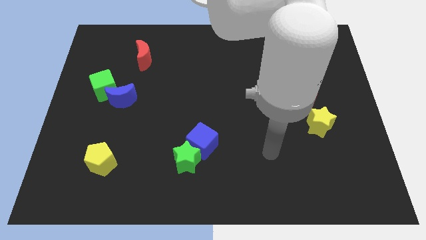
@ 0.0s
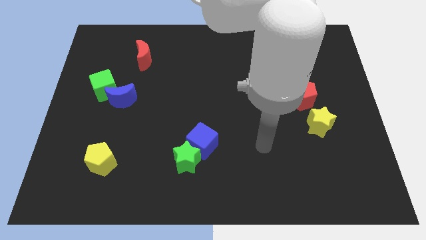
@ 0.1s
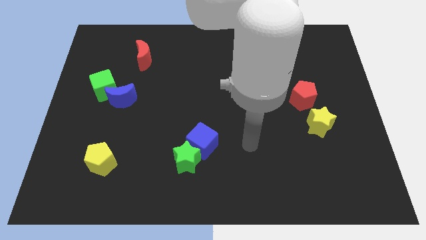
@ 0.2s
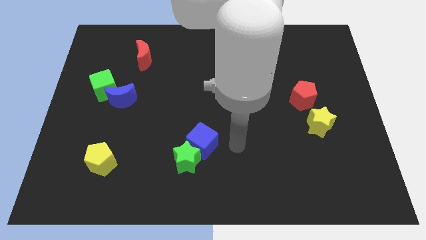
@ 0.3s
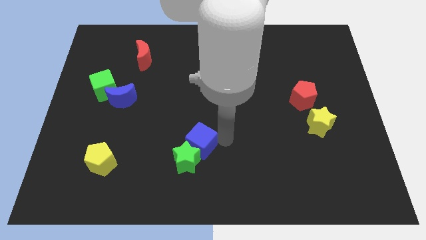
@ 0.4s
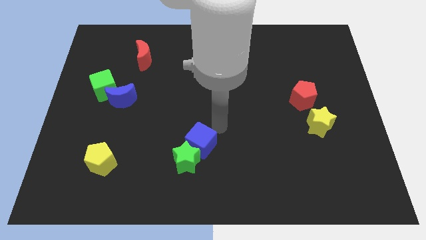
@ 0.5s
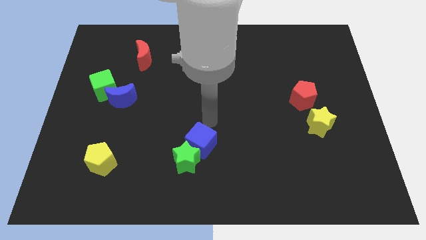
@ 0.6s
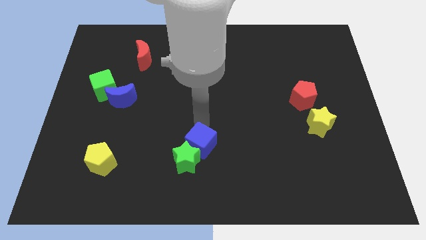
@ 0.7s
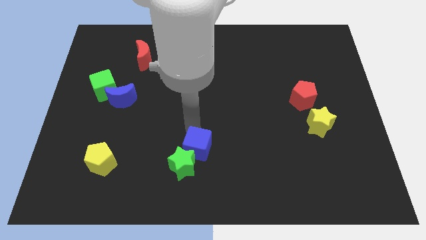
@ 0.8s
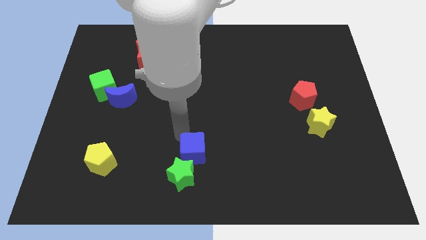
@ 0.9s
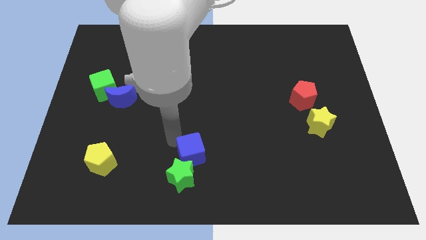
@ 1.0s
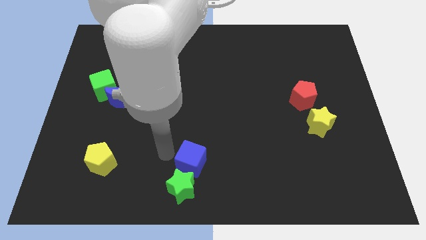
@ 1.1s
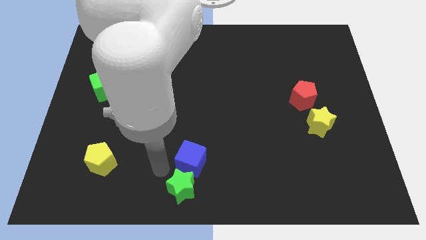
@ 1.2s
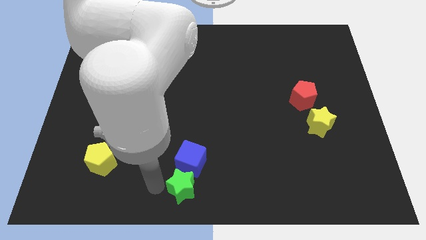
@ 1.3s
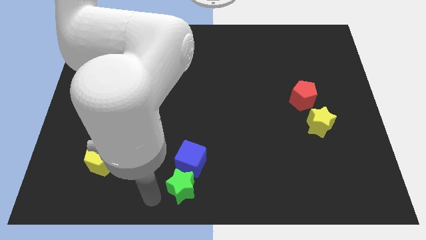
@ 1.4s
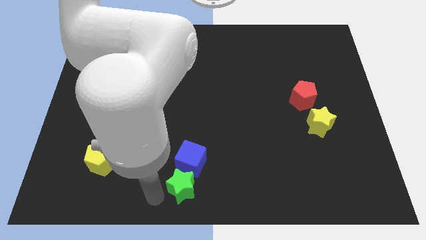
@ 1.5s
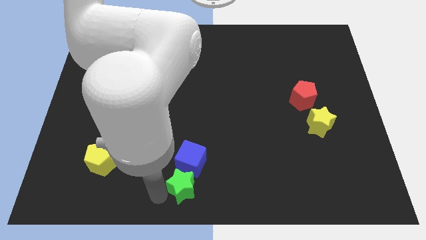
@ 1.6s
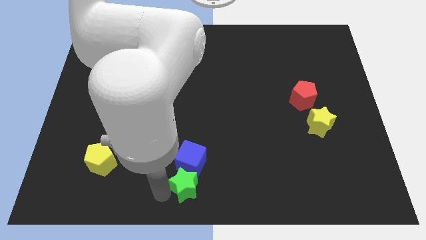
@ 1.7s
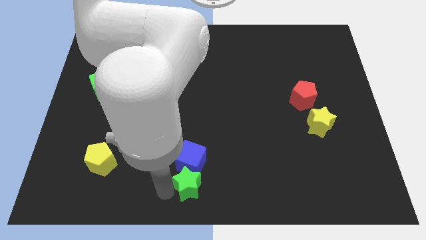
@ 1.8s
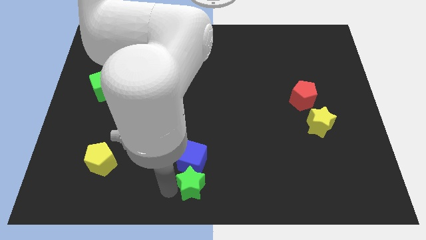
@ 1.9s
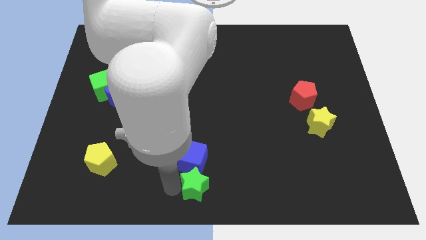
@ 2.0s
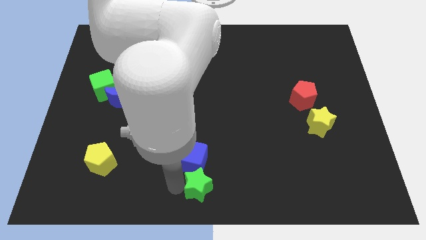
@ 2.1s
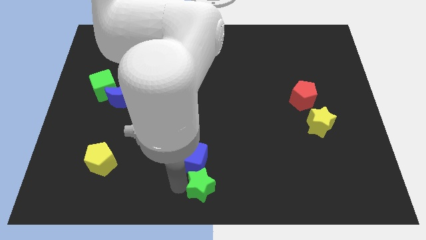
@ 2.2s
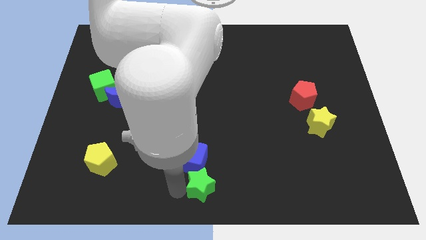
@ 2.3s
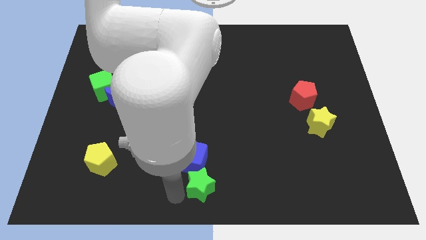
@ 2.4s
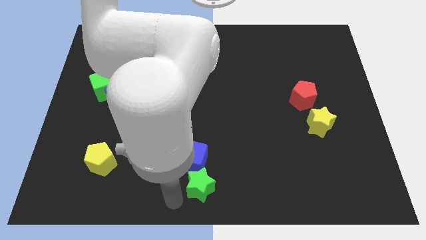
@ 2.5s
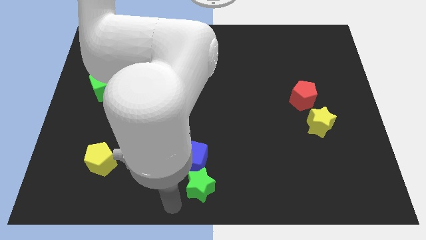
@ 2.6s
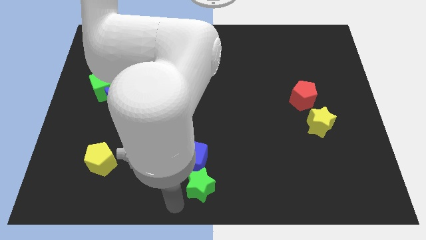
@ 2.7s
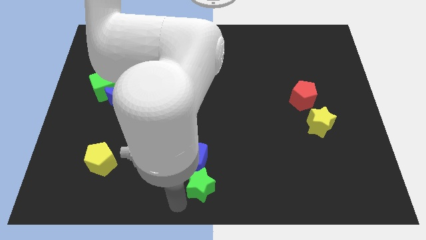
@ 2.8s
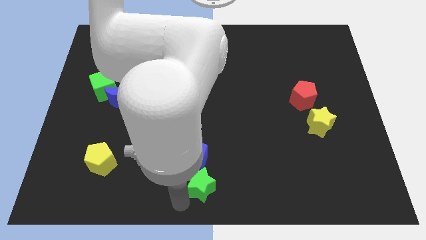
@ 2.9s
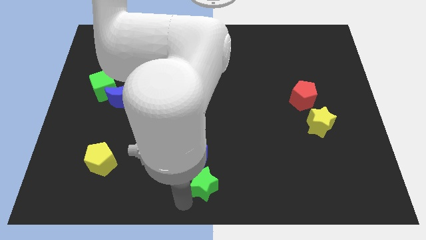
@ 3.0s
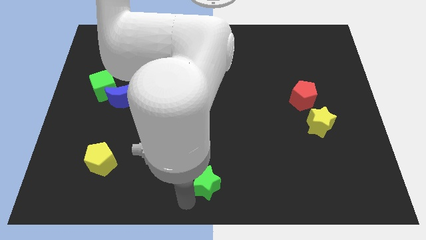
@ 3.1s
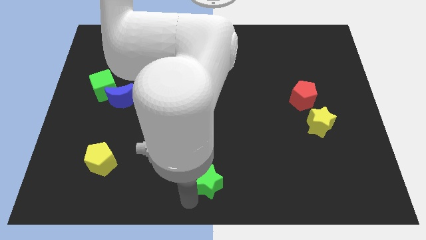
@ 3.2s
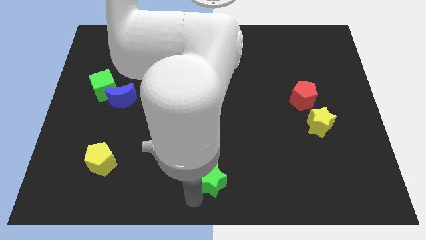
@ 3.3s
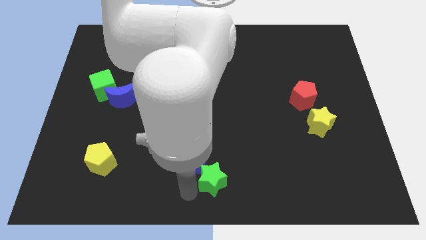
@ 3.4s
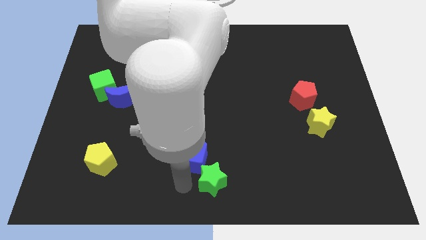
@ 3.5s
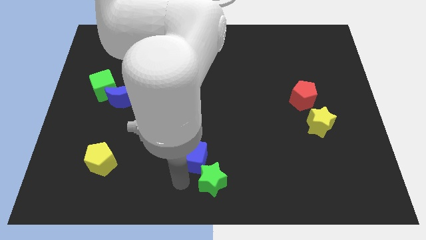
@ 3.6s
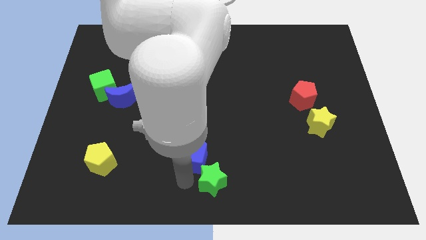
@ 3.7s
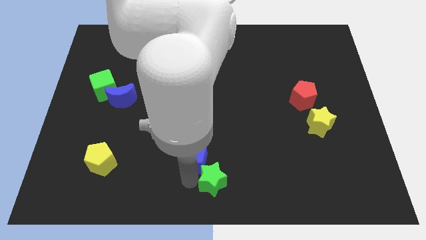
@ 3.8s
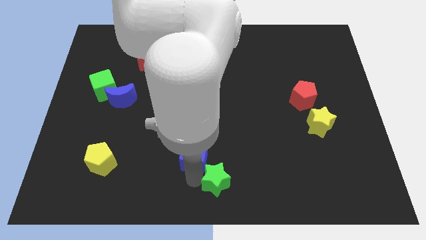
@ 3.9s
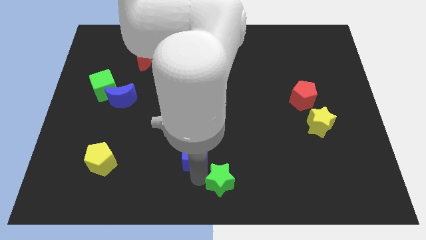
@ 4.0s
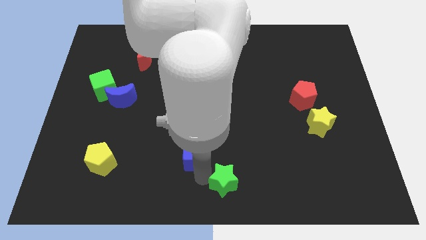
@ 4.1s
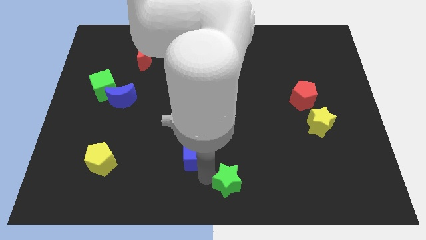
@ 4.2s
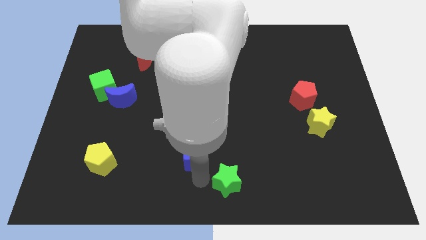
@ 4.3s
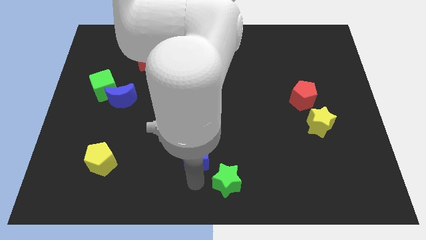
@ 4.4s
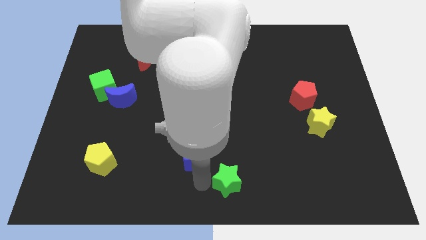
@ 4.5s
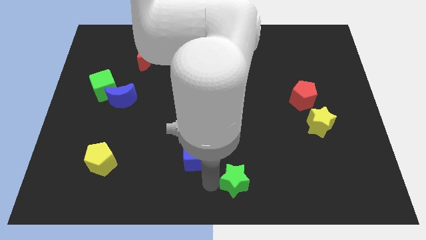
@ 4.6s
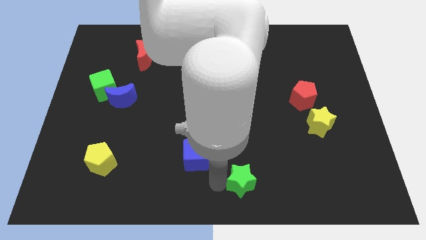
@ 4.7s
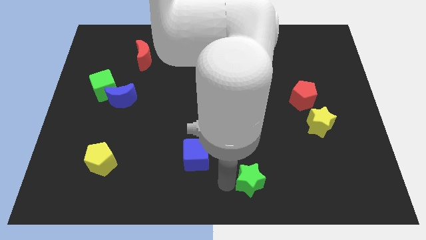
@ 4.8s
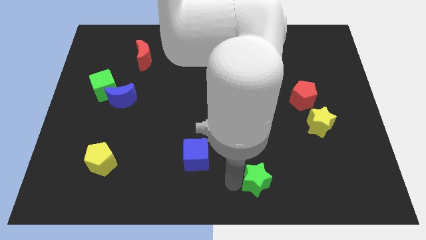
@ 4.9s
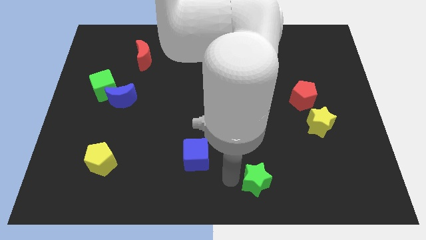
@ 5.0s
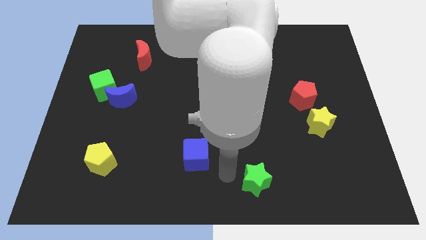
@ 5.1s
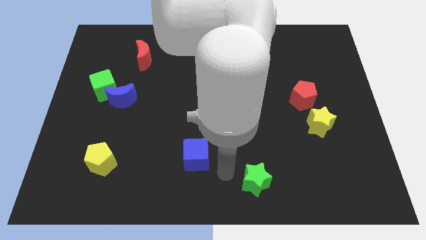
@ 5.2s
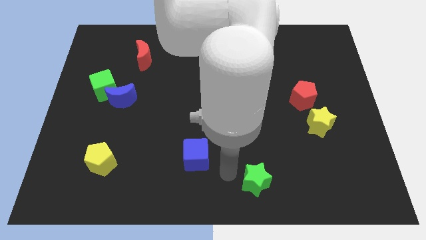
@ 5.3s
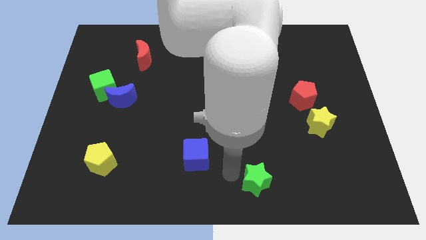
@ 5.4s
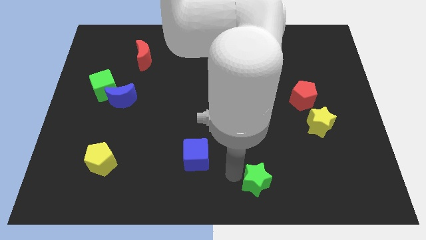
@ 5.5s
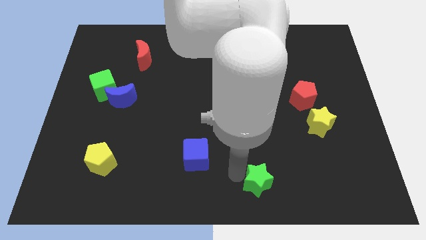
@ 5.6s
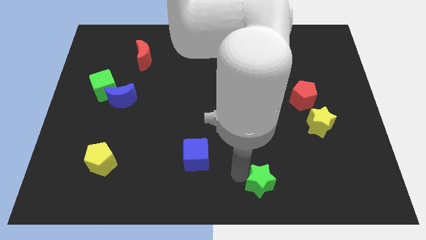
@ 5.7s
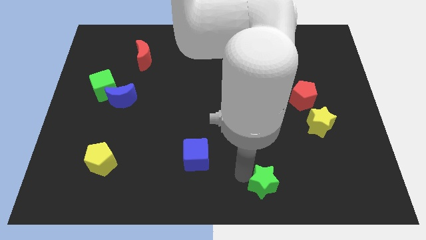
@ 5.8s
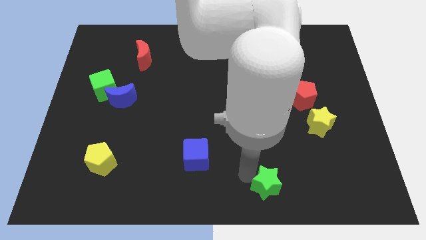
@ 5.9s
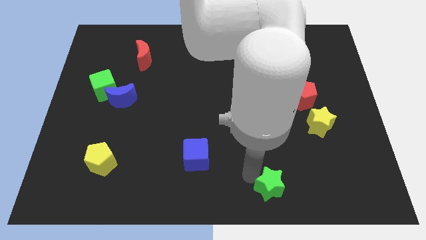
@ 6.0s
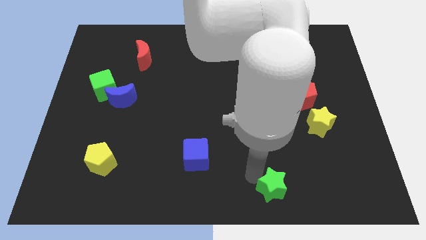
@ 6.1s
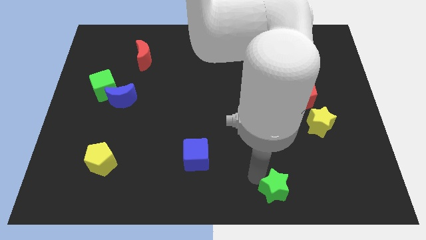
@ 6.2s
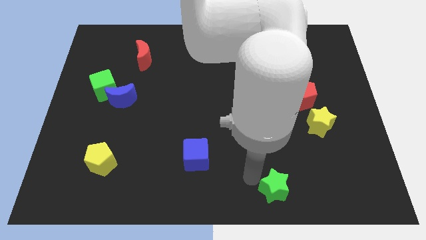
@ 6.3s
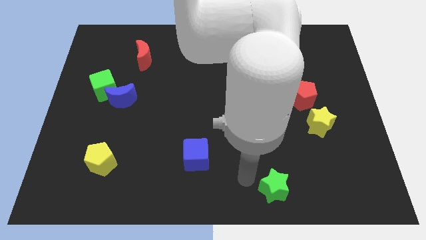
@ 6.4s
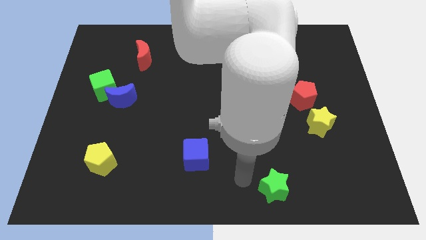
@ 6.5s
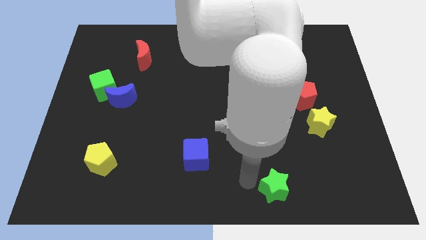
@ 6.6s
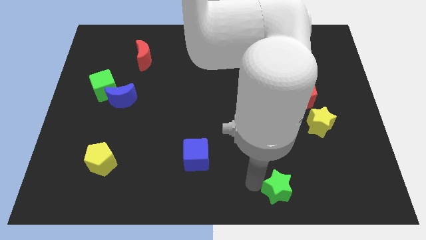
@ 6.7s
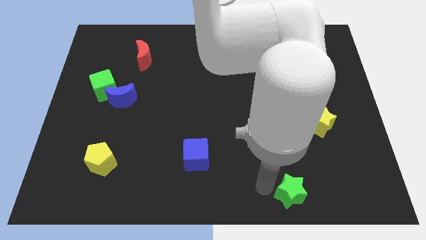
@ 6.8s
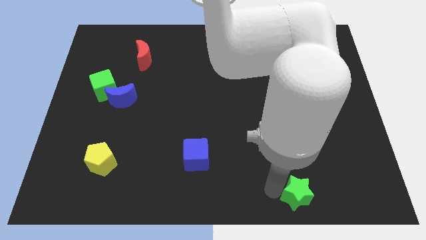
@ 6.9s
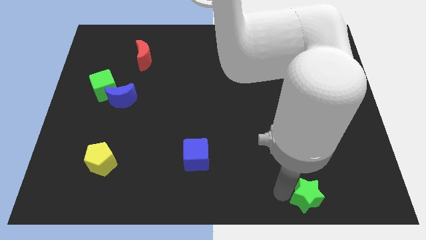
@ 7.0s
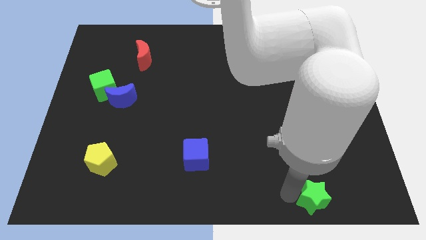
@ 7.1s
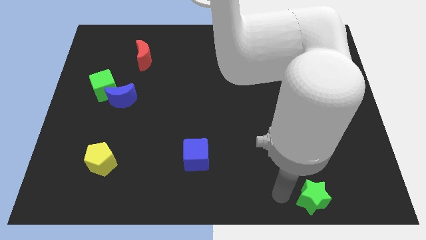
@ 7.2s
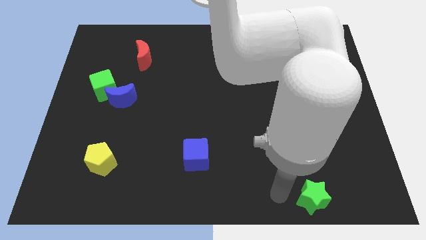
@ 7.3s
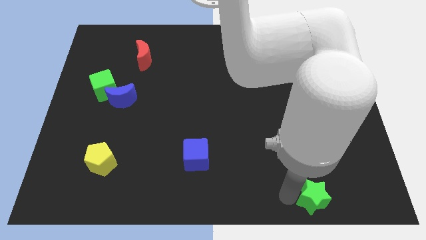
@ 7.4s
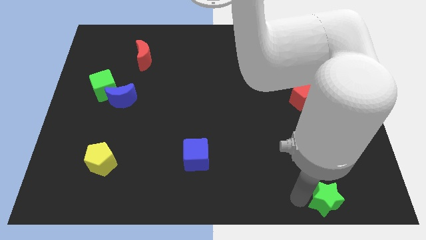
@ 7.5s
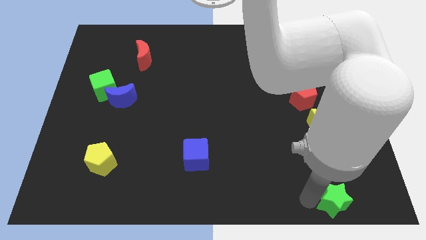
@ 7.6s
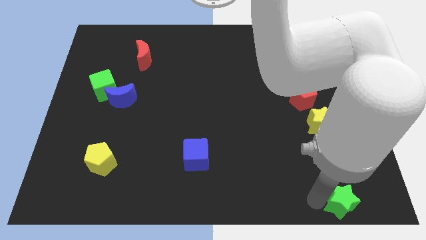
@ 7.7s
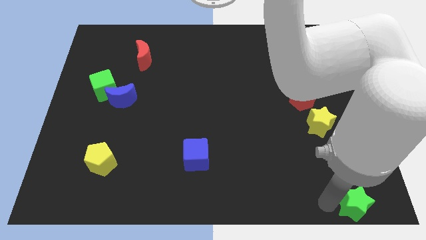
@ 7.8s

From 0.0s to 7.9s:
push the green star to the bottom right corner
